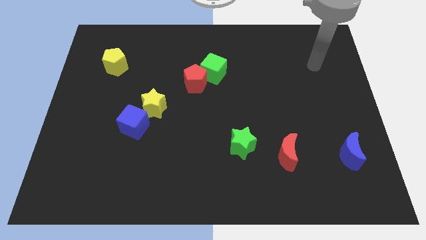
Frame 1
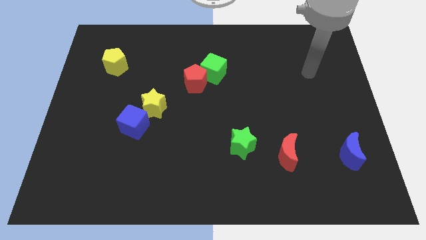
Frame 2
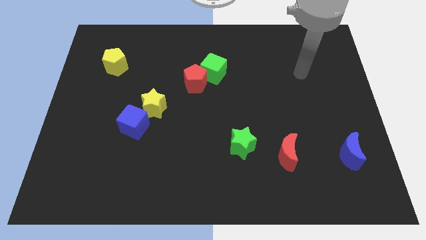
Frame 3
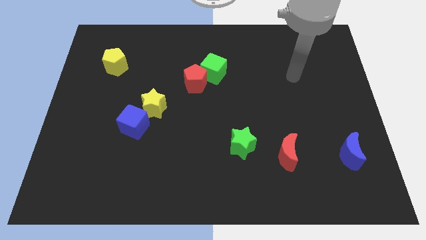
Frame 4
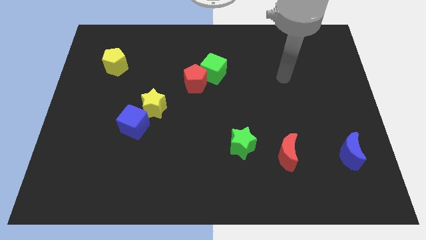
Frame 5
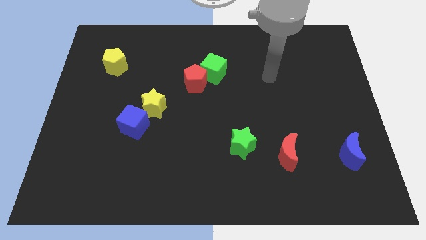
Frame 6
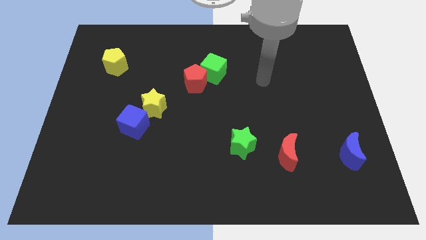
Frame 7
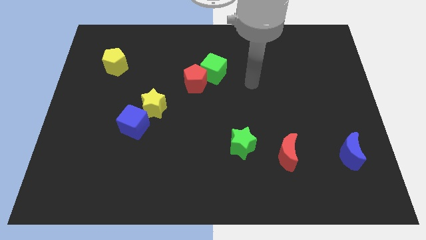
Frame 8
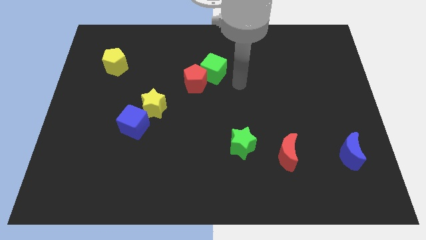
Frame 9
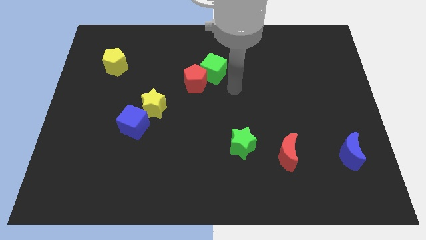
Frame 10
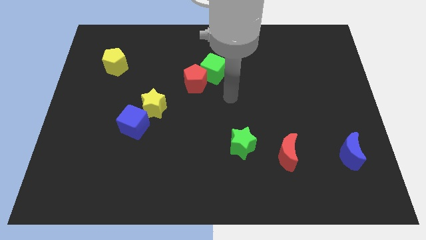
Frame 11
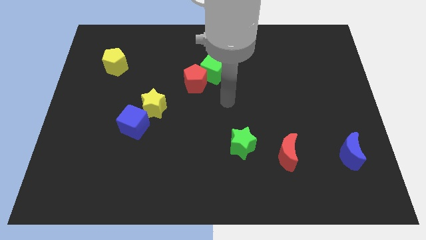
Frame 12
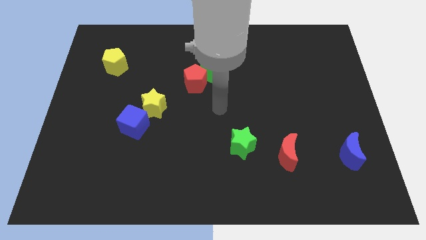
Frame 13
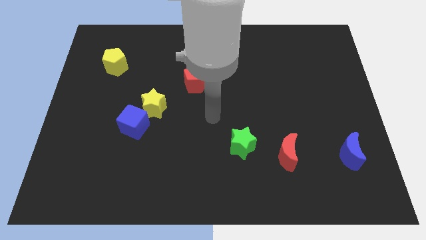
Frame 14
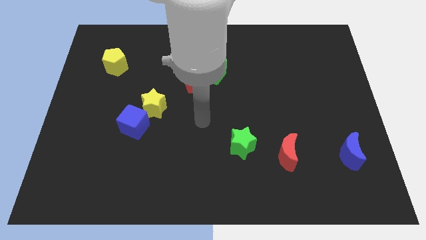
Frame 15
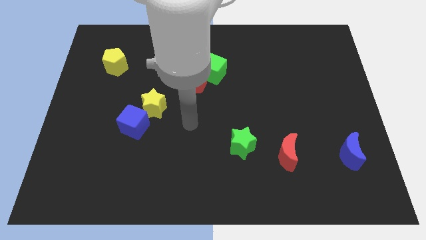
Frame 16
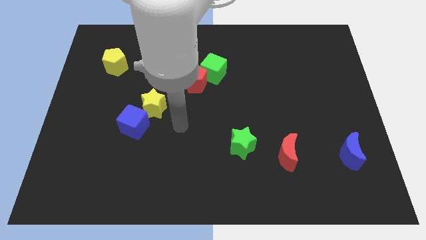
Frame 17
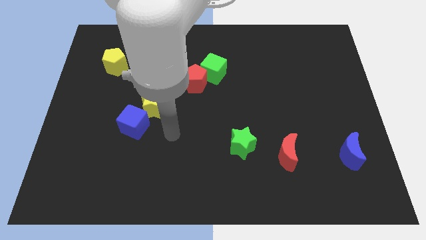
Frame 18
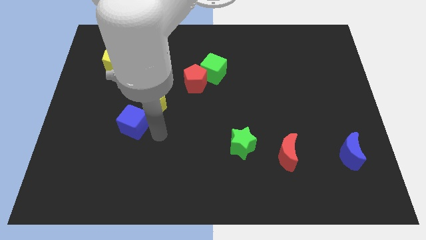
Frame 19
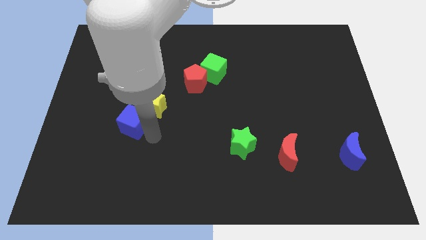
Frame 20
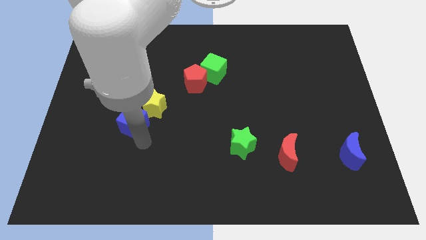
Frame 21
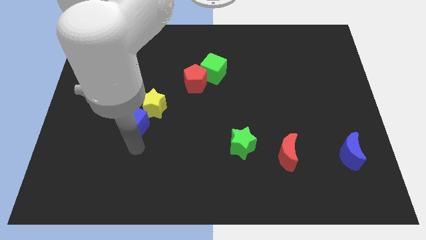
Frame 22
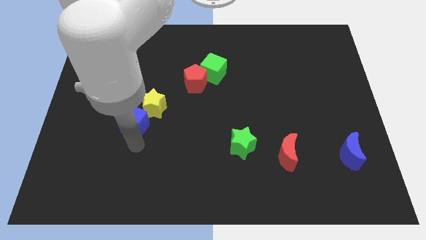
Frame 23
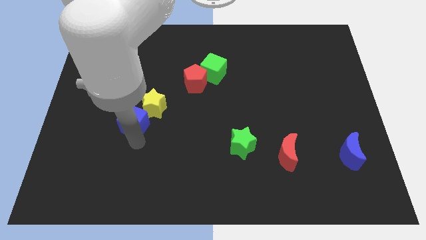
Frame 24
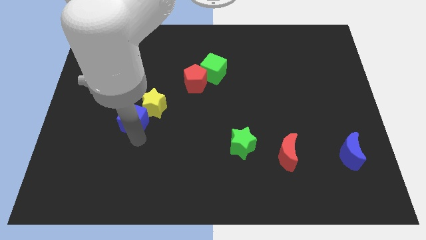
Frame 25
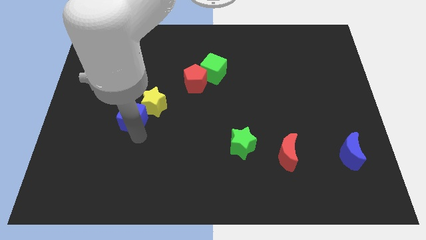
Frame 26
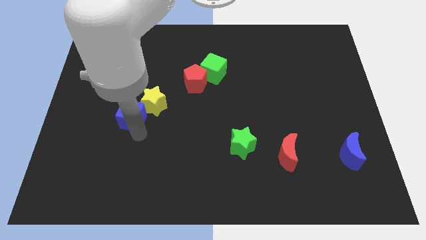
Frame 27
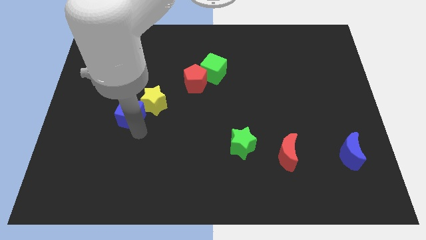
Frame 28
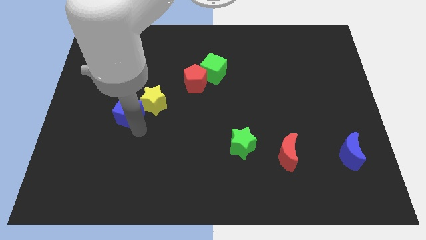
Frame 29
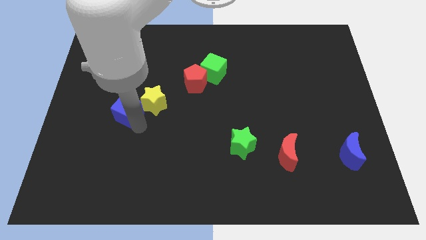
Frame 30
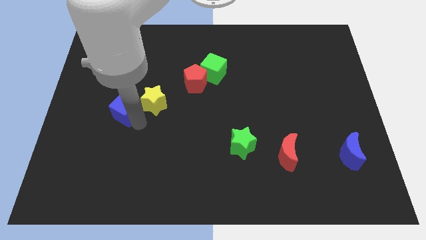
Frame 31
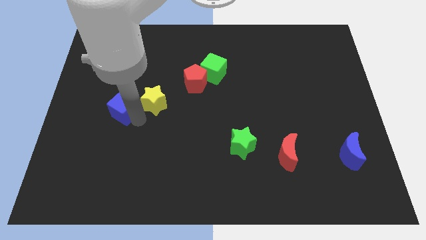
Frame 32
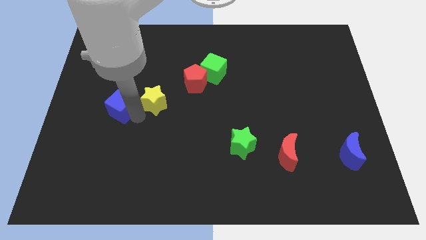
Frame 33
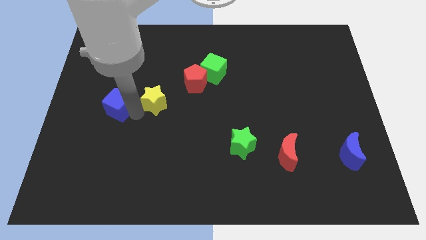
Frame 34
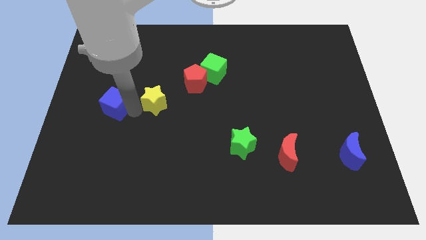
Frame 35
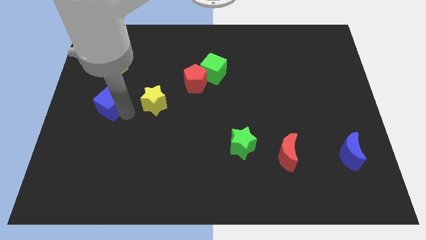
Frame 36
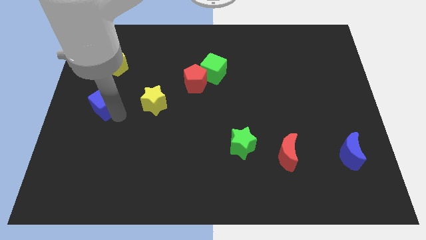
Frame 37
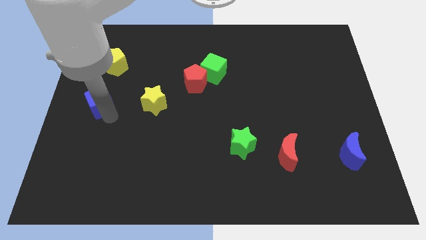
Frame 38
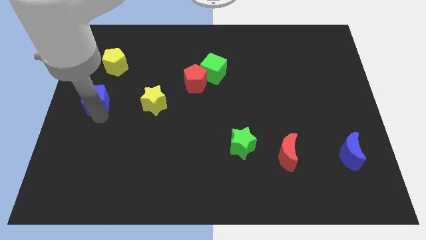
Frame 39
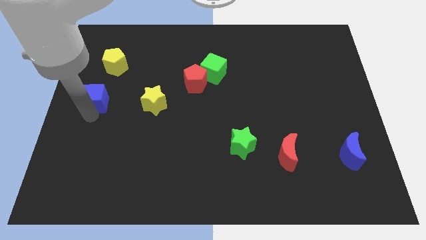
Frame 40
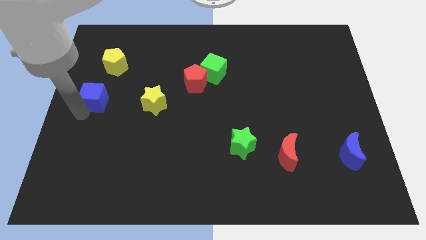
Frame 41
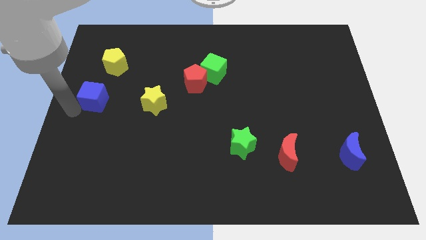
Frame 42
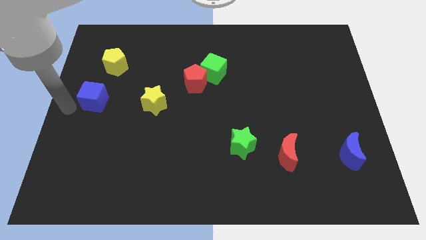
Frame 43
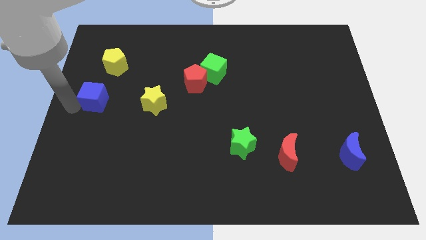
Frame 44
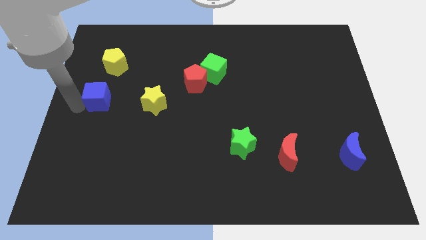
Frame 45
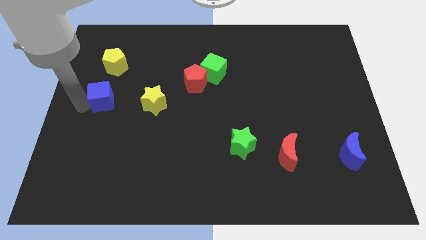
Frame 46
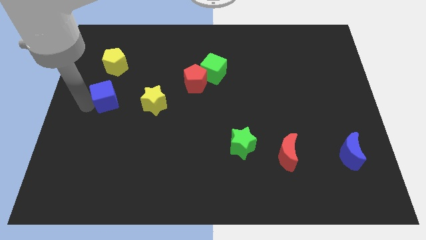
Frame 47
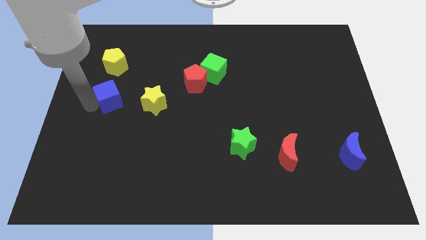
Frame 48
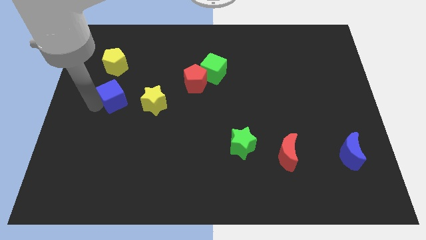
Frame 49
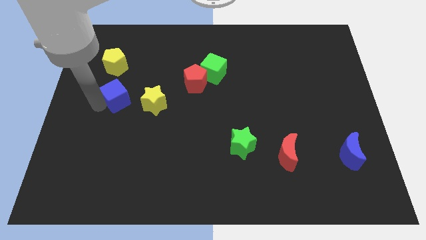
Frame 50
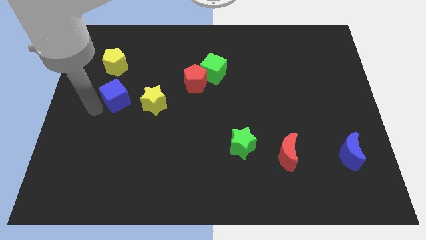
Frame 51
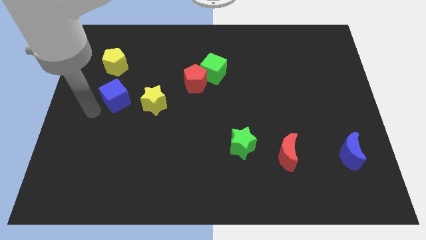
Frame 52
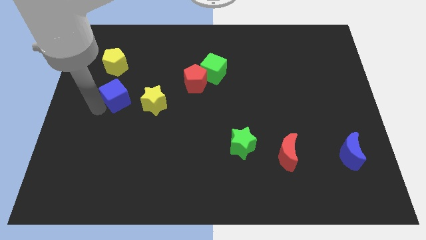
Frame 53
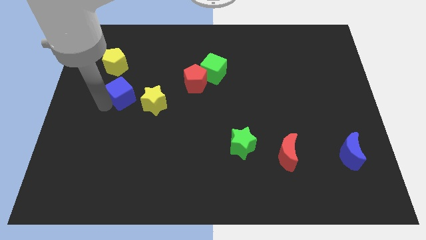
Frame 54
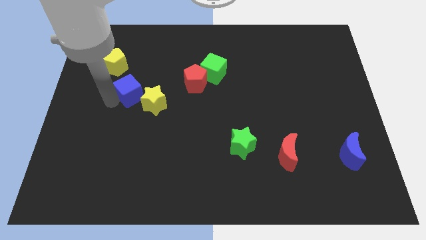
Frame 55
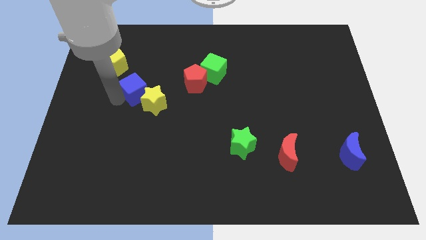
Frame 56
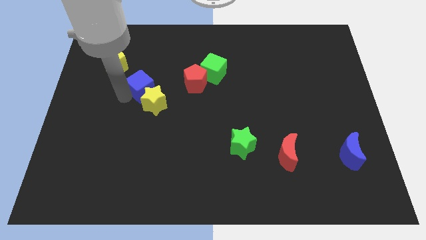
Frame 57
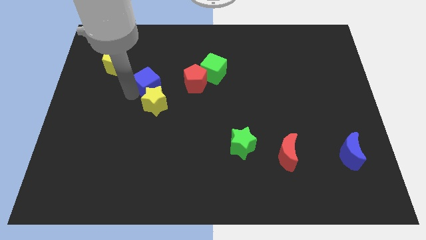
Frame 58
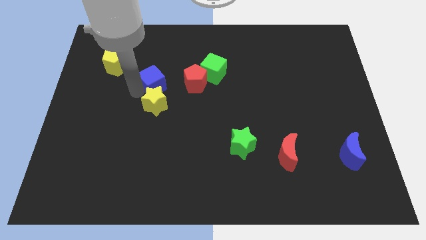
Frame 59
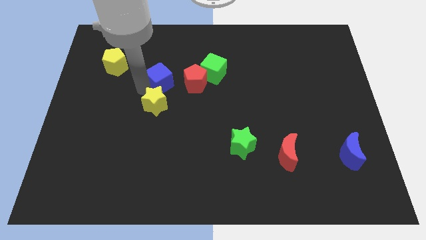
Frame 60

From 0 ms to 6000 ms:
move the blue cube left of the green cube

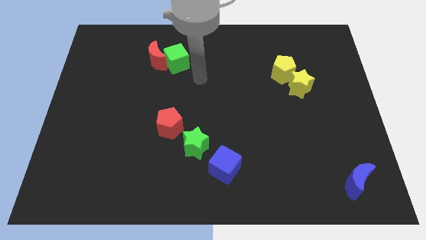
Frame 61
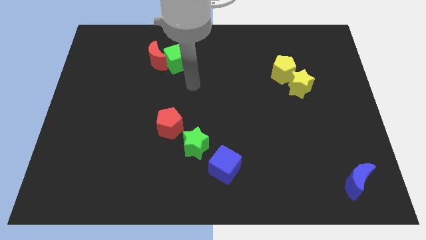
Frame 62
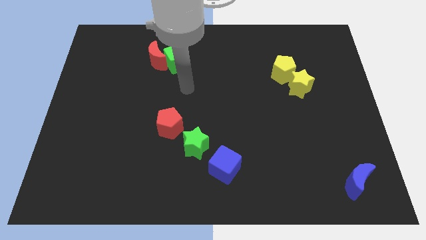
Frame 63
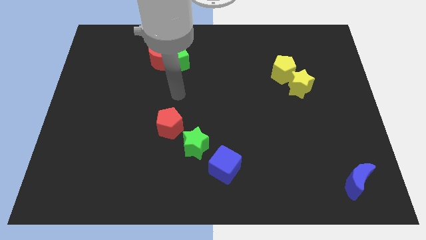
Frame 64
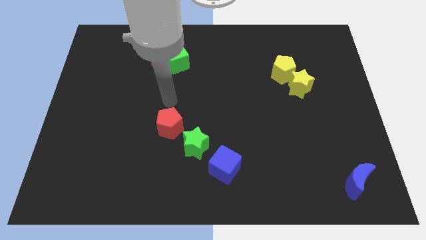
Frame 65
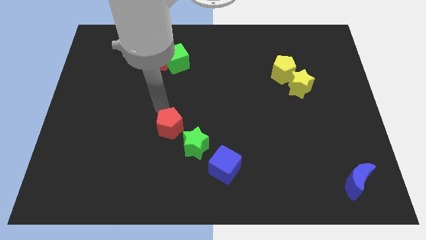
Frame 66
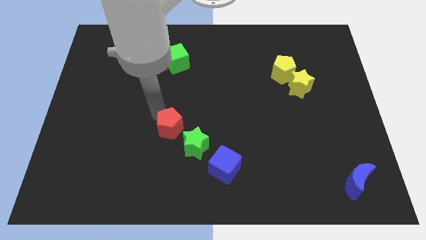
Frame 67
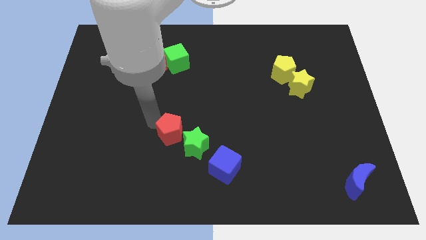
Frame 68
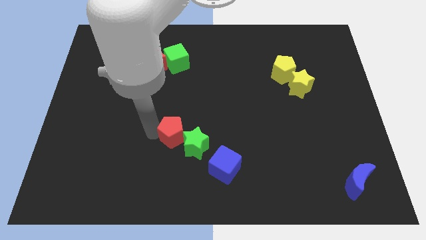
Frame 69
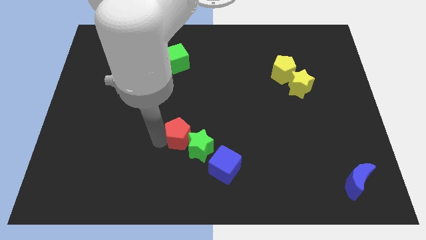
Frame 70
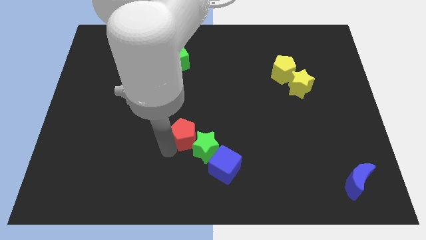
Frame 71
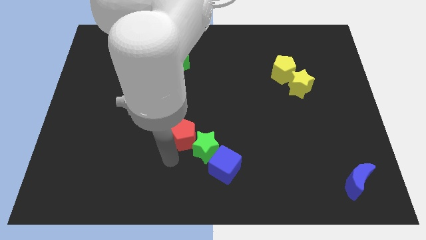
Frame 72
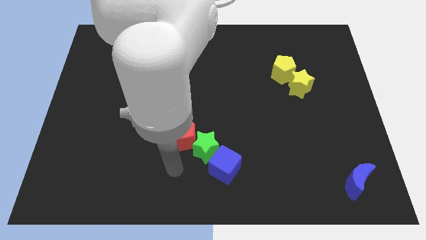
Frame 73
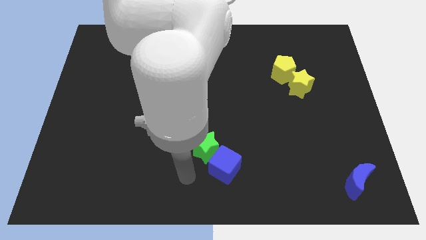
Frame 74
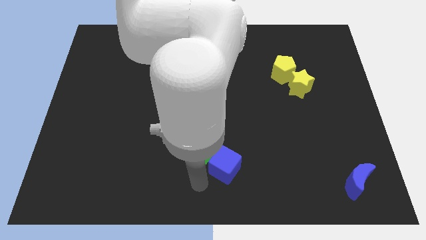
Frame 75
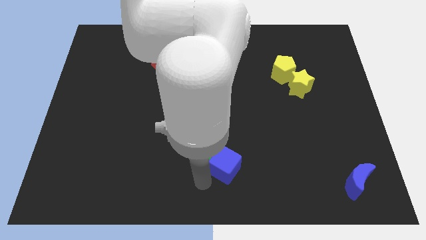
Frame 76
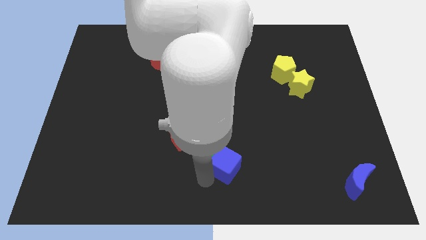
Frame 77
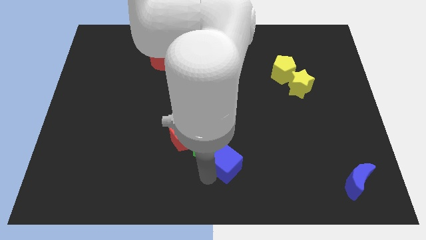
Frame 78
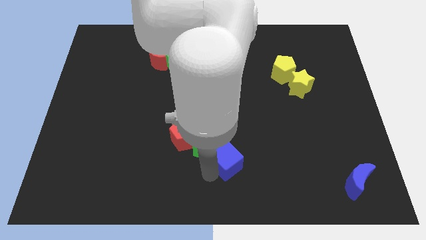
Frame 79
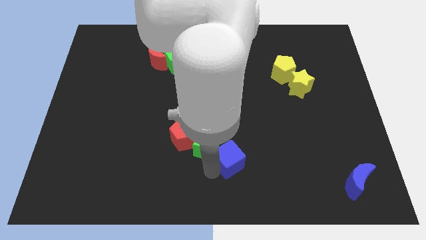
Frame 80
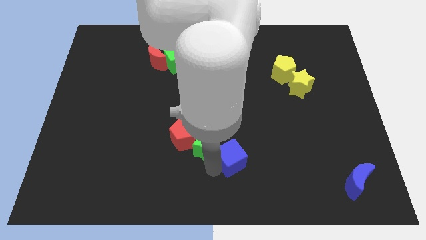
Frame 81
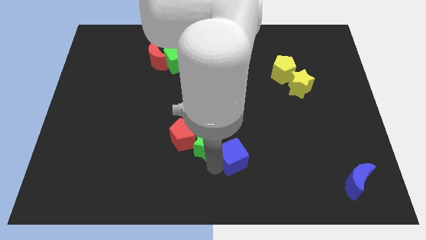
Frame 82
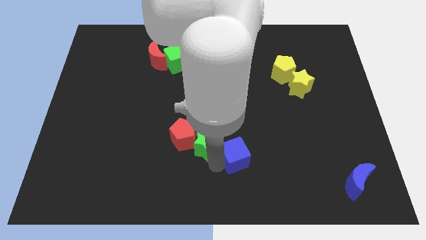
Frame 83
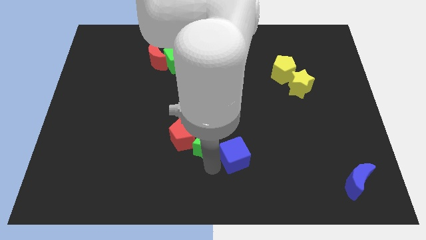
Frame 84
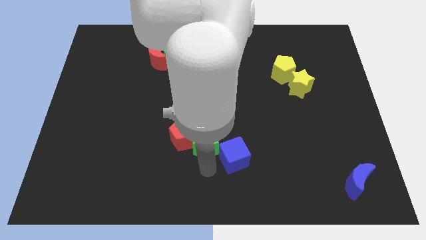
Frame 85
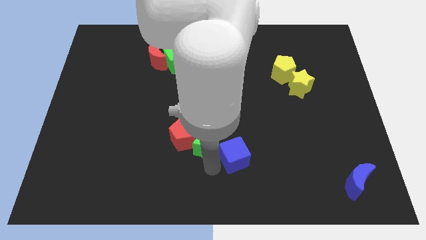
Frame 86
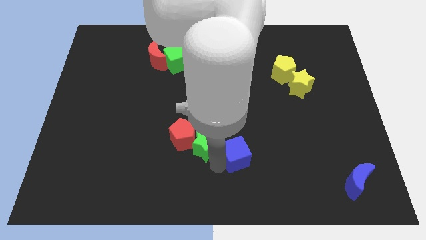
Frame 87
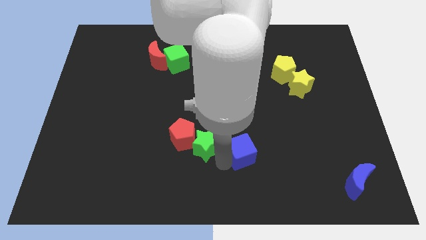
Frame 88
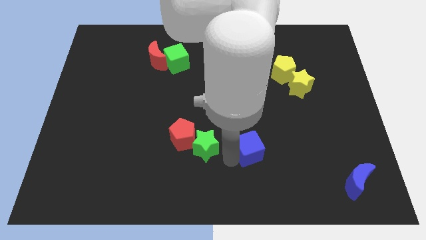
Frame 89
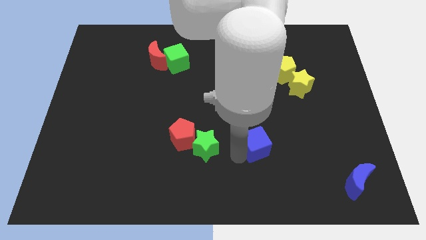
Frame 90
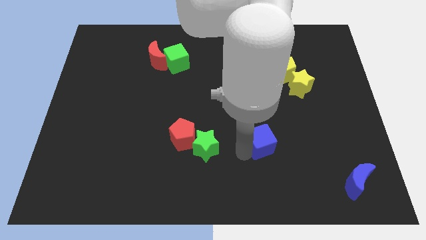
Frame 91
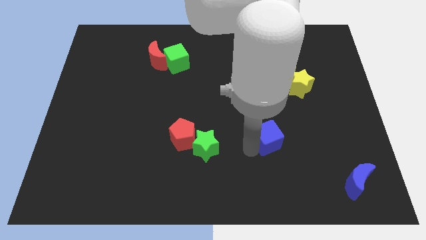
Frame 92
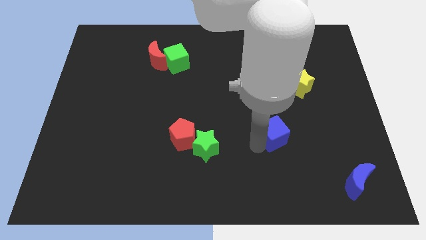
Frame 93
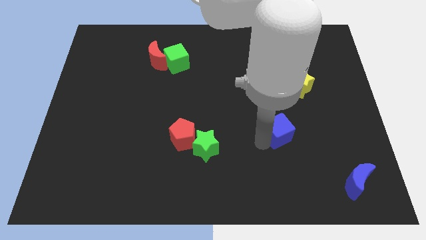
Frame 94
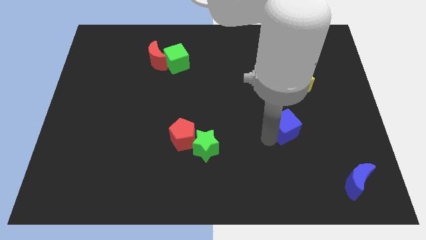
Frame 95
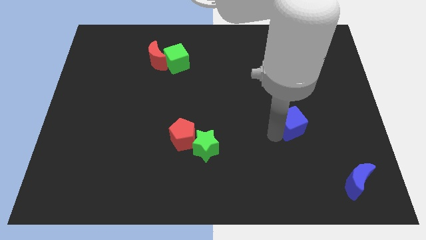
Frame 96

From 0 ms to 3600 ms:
slide the blue cube below the yellow star
